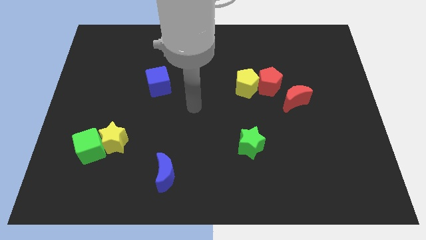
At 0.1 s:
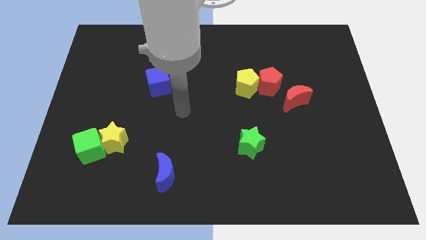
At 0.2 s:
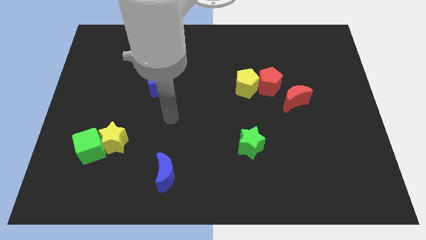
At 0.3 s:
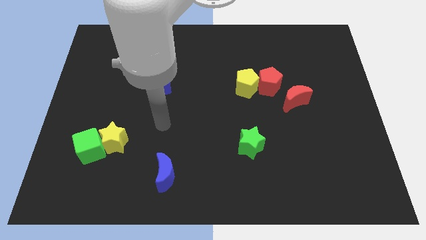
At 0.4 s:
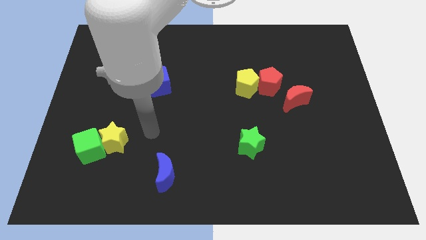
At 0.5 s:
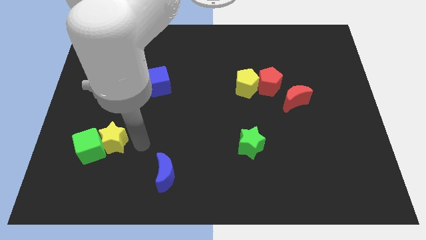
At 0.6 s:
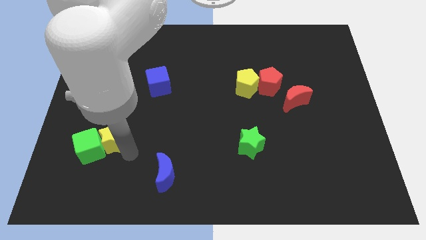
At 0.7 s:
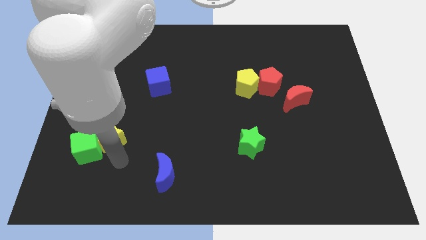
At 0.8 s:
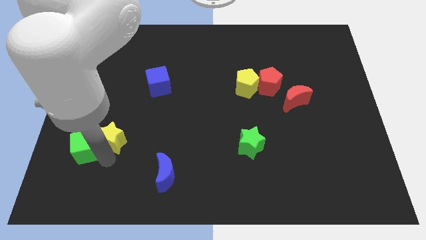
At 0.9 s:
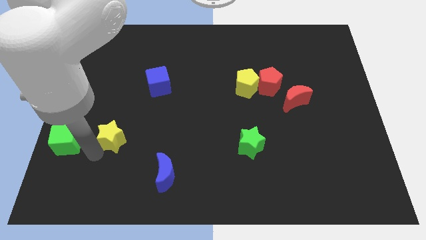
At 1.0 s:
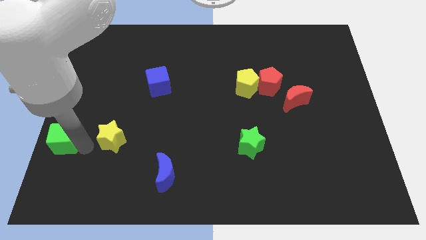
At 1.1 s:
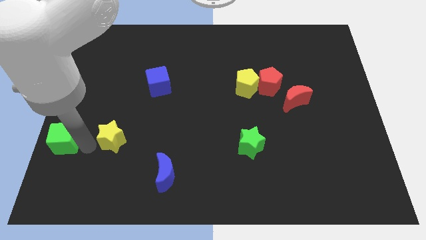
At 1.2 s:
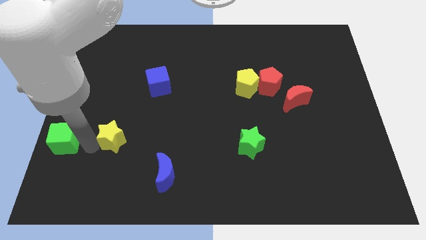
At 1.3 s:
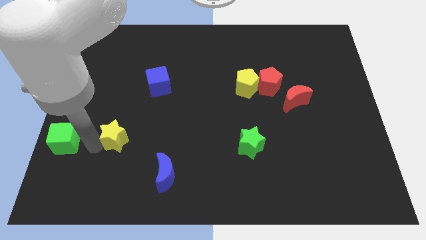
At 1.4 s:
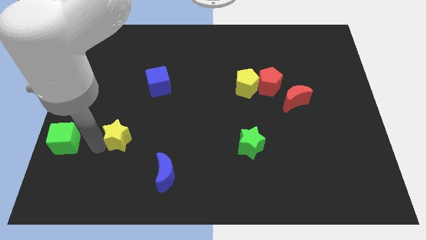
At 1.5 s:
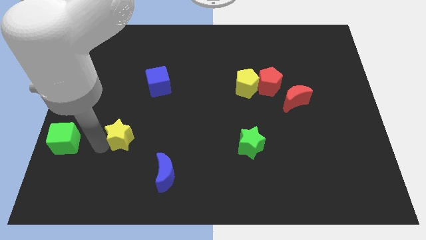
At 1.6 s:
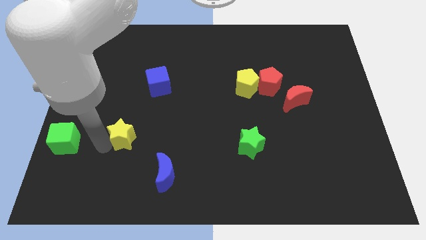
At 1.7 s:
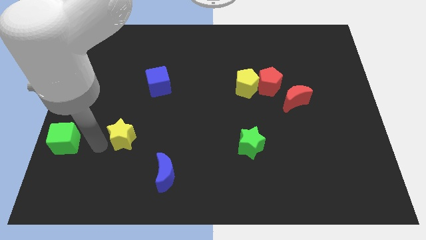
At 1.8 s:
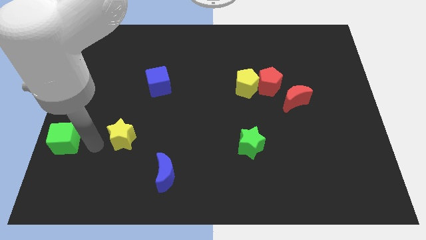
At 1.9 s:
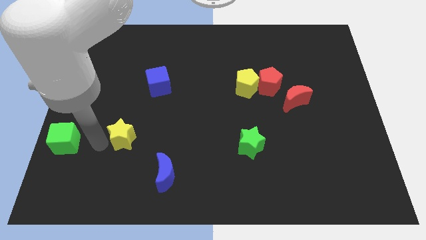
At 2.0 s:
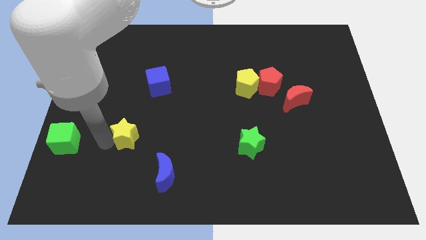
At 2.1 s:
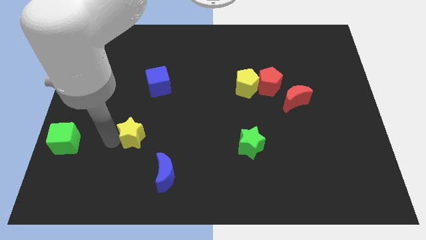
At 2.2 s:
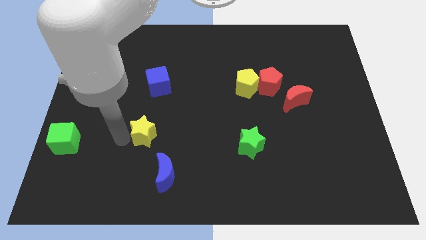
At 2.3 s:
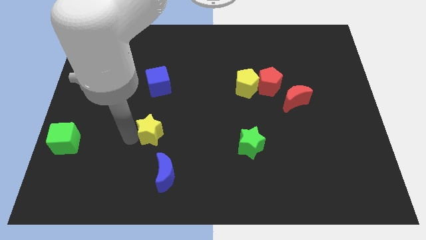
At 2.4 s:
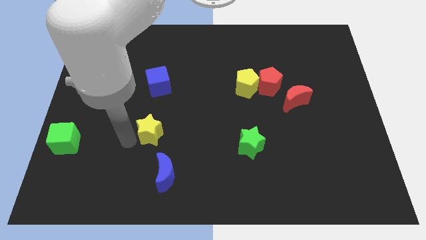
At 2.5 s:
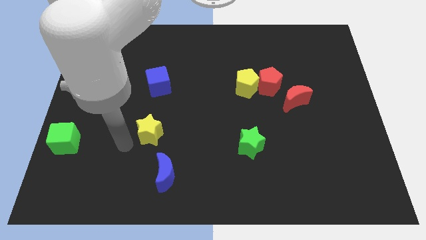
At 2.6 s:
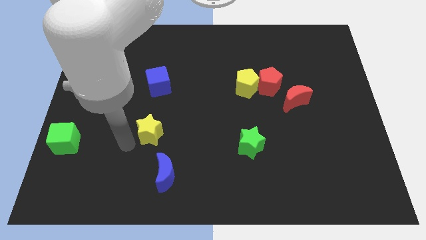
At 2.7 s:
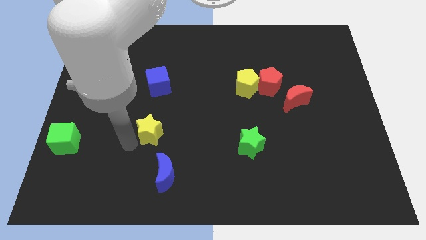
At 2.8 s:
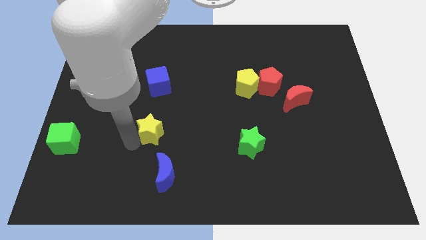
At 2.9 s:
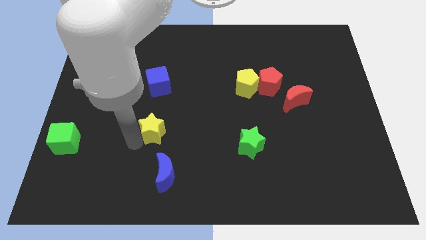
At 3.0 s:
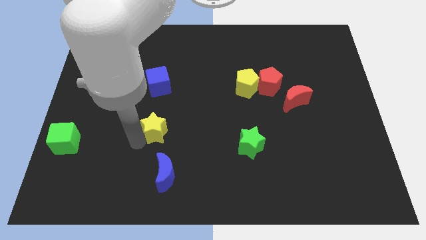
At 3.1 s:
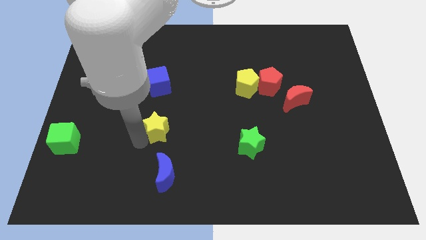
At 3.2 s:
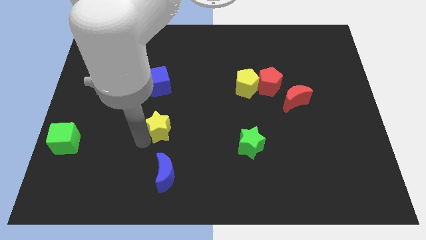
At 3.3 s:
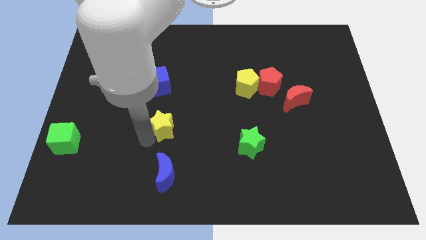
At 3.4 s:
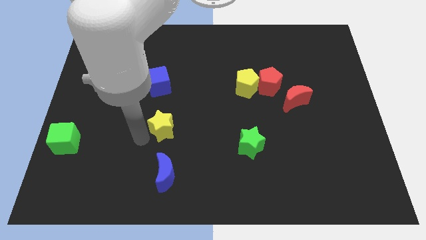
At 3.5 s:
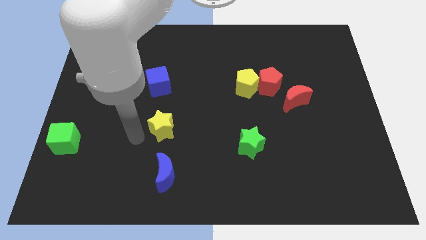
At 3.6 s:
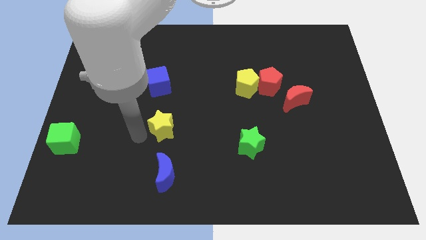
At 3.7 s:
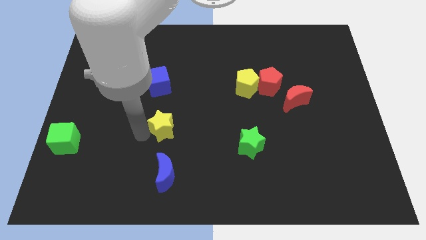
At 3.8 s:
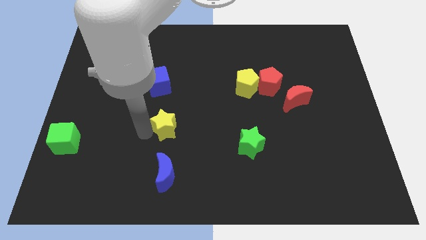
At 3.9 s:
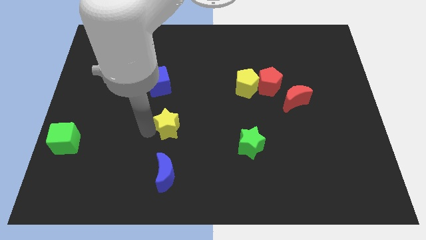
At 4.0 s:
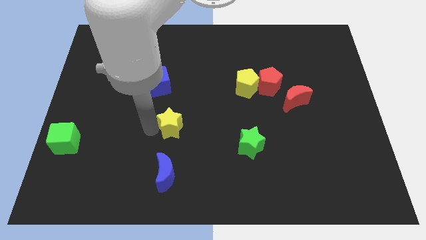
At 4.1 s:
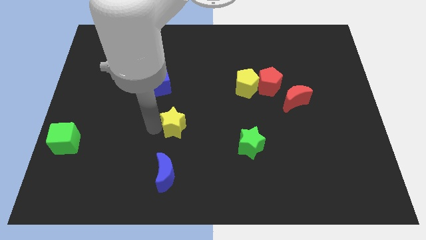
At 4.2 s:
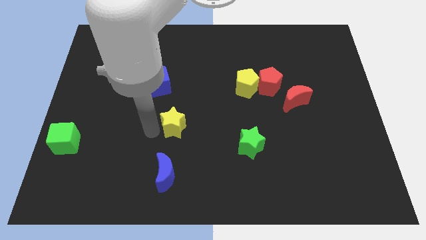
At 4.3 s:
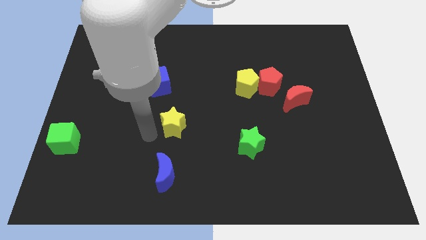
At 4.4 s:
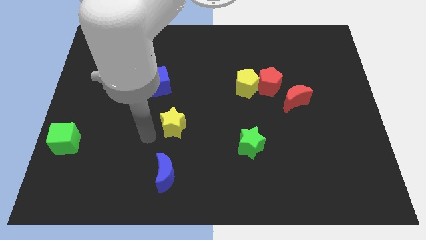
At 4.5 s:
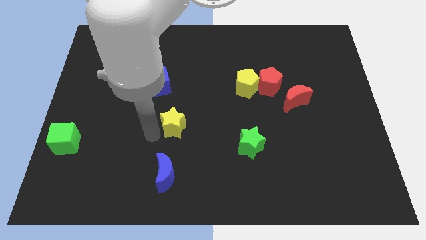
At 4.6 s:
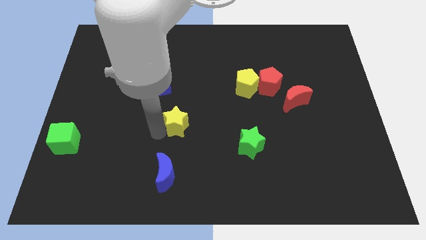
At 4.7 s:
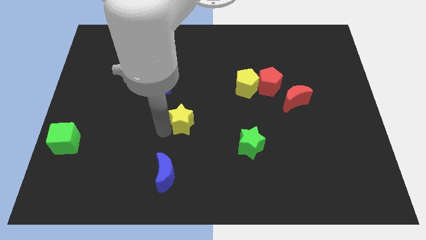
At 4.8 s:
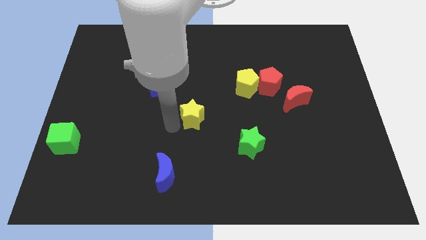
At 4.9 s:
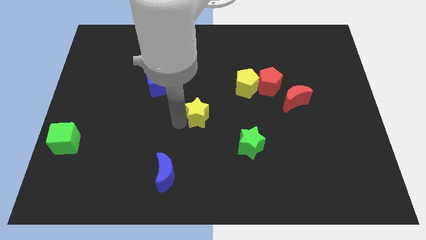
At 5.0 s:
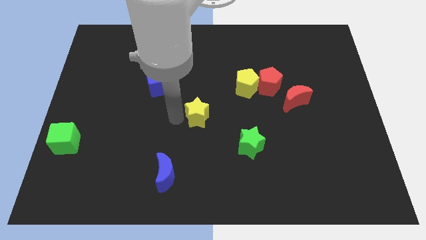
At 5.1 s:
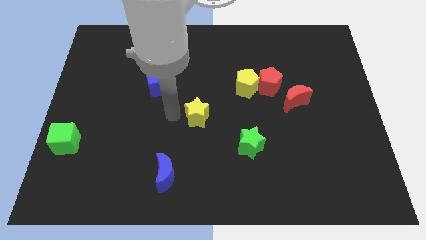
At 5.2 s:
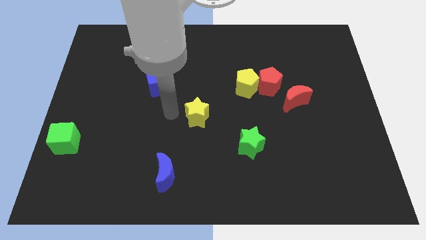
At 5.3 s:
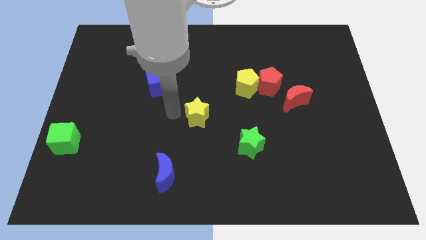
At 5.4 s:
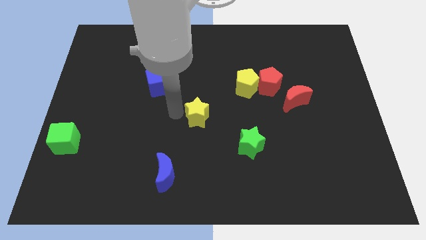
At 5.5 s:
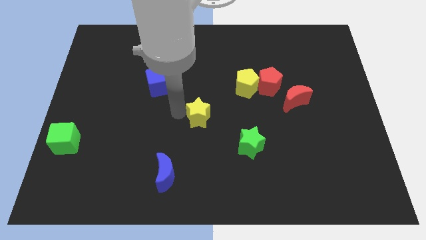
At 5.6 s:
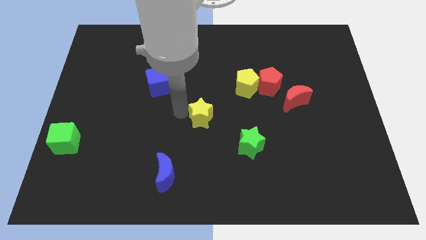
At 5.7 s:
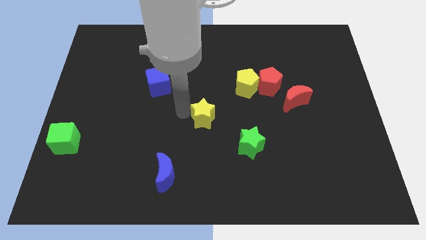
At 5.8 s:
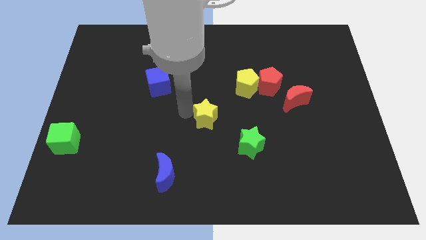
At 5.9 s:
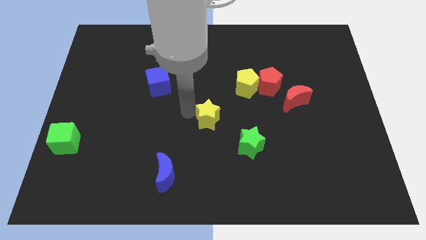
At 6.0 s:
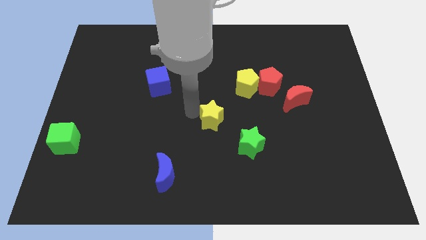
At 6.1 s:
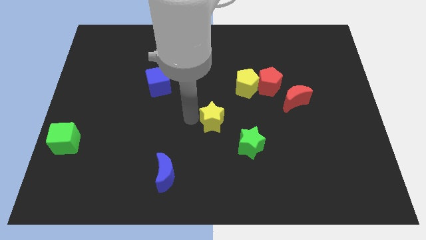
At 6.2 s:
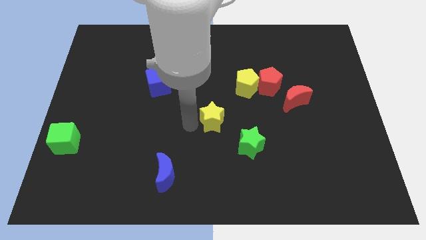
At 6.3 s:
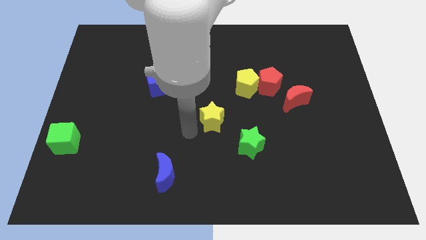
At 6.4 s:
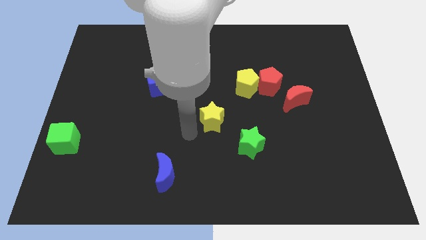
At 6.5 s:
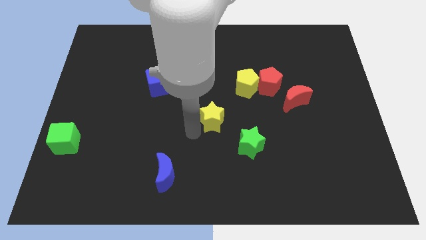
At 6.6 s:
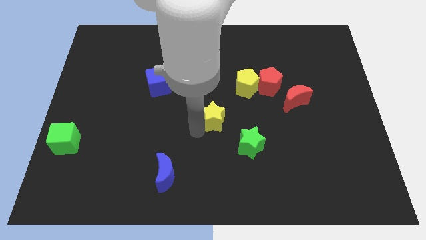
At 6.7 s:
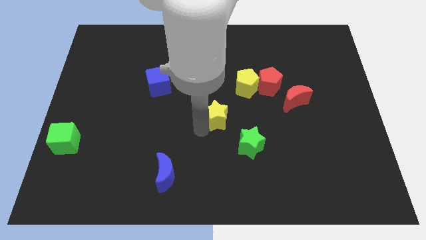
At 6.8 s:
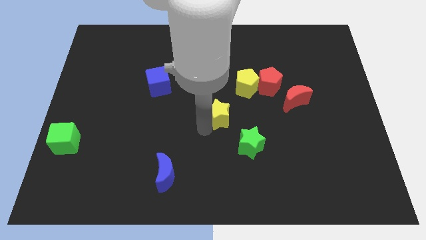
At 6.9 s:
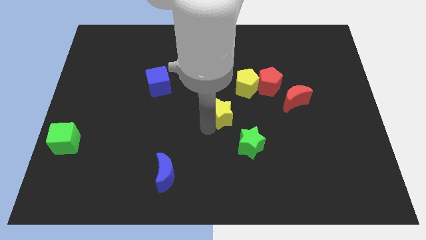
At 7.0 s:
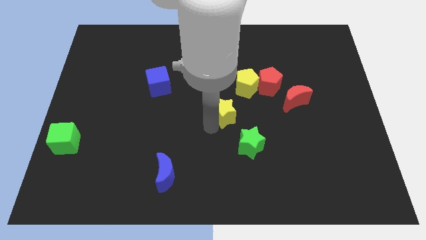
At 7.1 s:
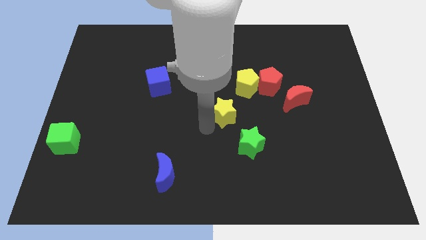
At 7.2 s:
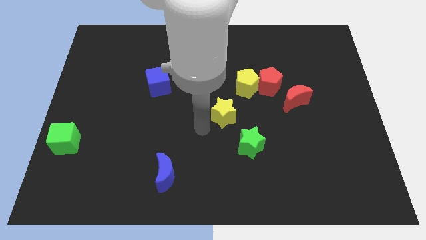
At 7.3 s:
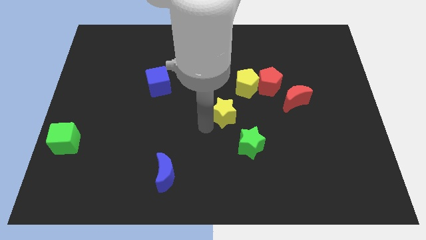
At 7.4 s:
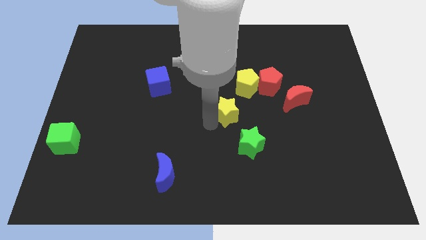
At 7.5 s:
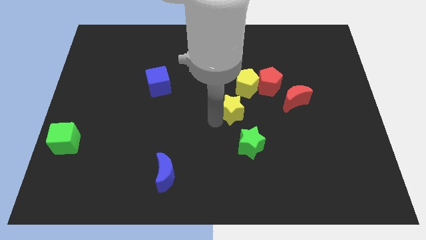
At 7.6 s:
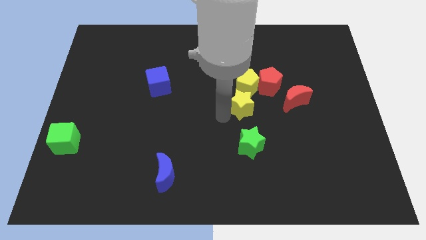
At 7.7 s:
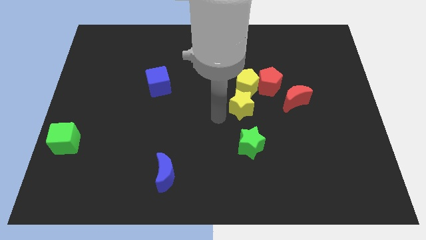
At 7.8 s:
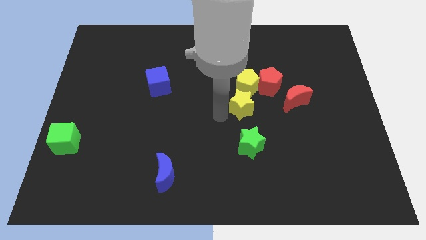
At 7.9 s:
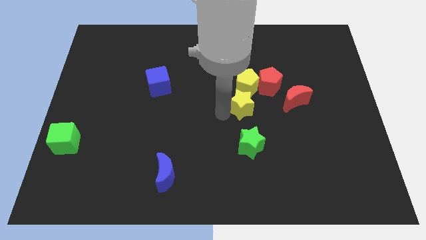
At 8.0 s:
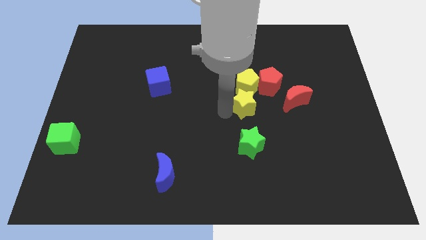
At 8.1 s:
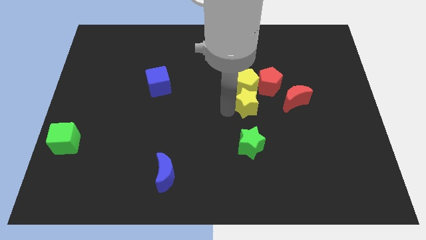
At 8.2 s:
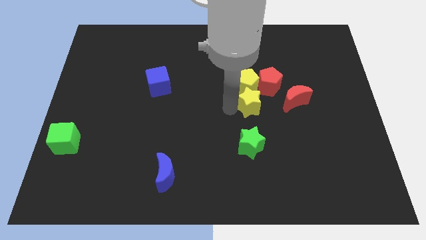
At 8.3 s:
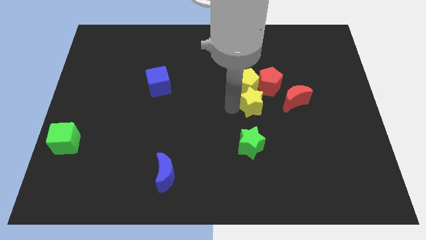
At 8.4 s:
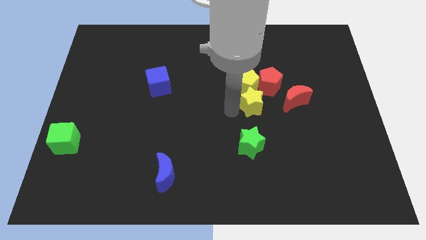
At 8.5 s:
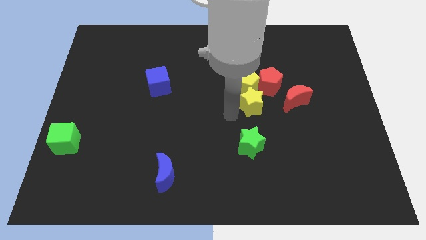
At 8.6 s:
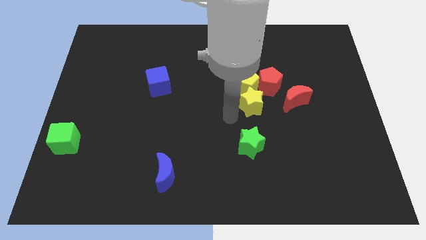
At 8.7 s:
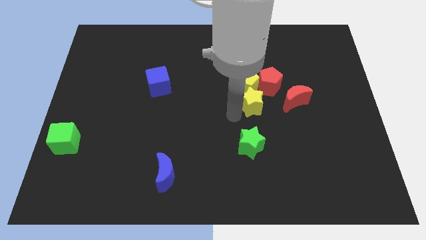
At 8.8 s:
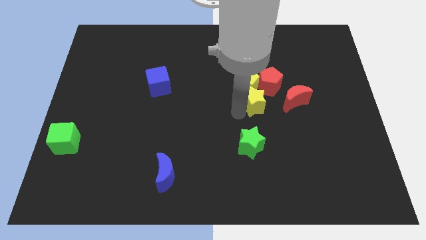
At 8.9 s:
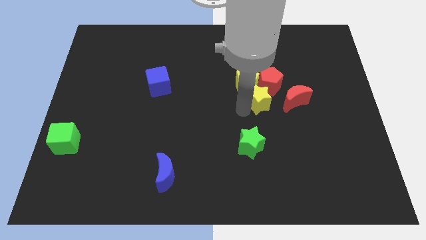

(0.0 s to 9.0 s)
slide the yellow star close to the red pentagon
